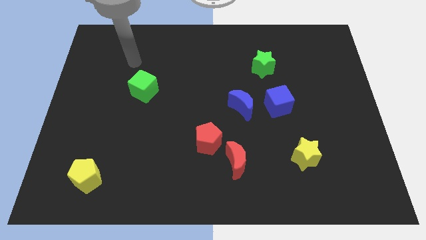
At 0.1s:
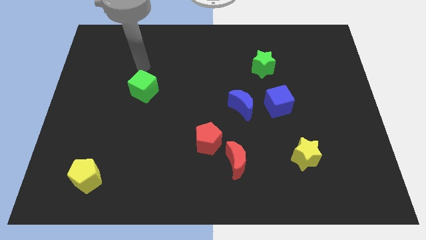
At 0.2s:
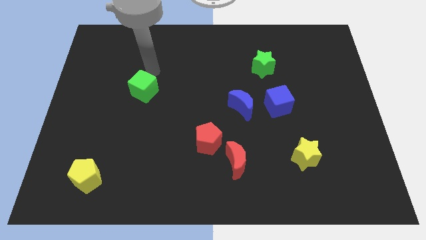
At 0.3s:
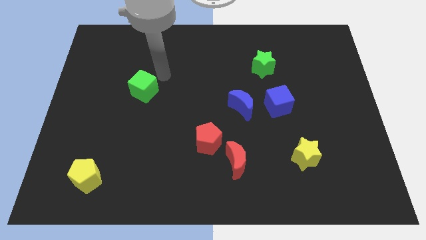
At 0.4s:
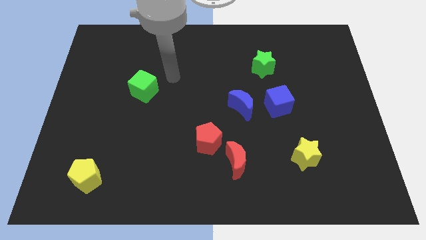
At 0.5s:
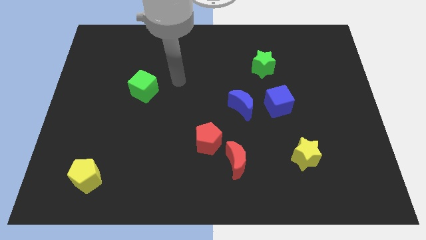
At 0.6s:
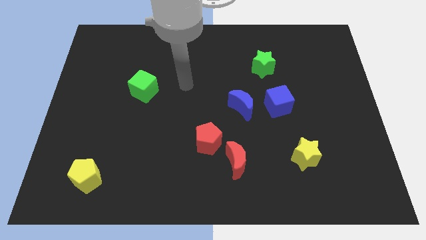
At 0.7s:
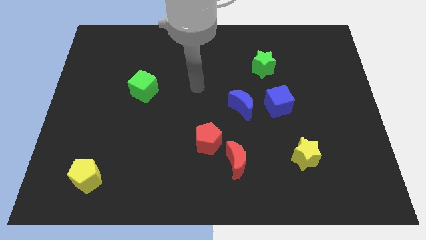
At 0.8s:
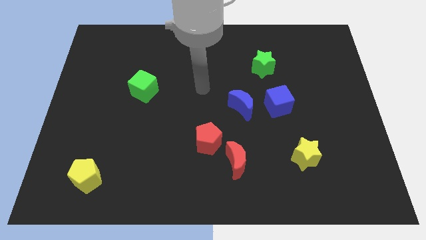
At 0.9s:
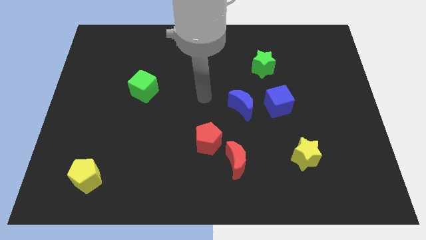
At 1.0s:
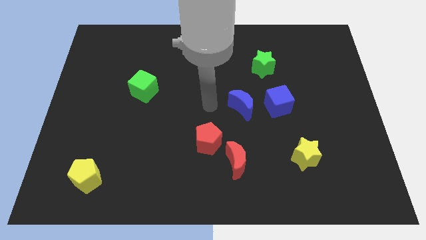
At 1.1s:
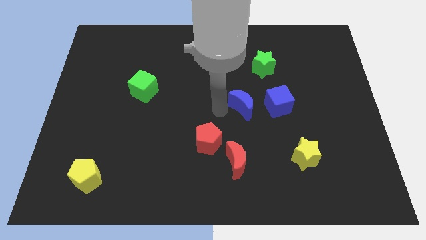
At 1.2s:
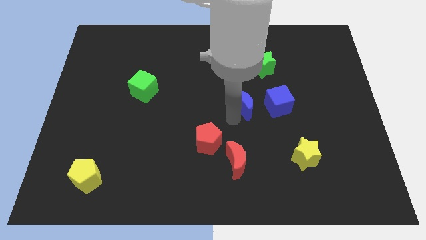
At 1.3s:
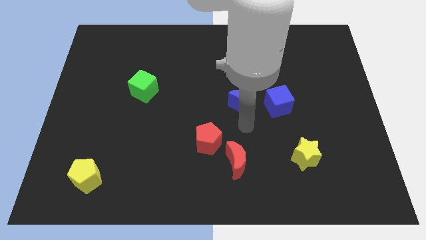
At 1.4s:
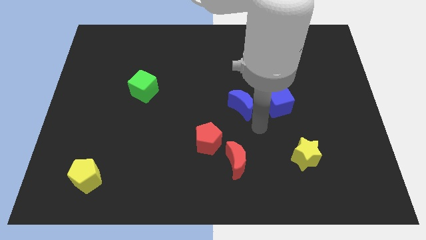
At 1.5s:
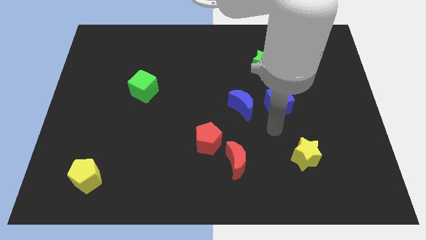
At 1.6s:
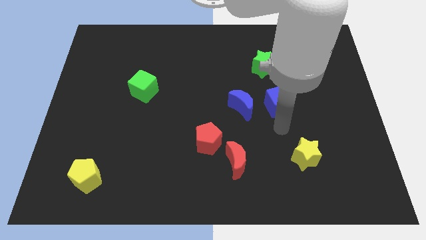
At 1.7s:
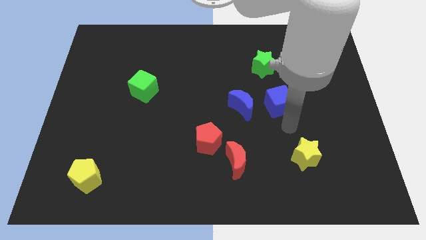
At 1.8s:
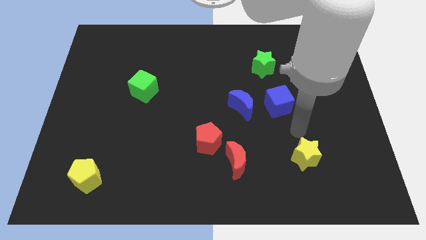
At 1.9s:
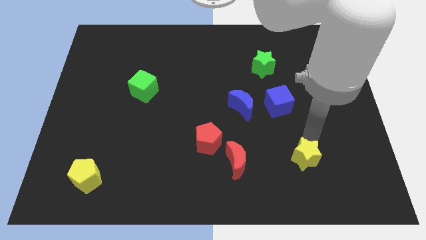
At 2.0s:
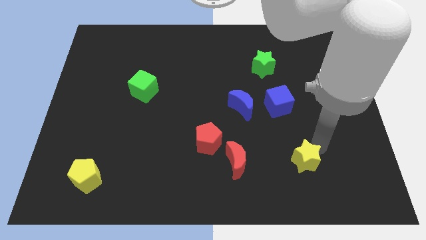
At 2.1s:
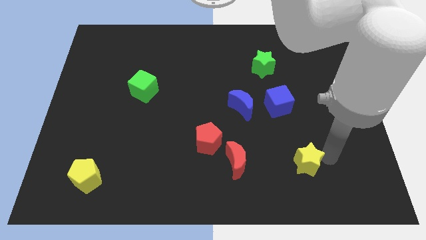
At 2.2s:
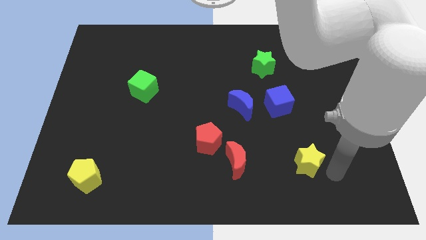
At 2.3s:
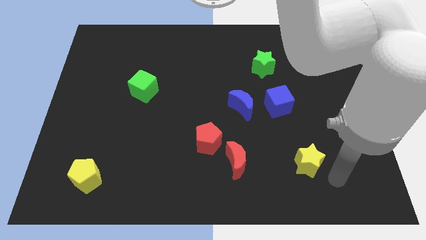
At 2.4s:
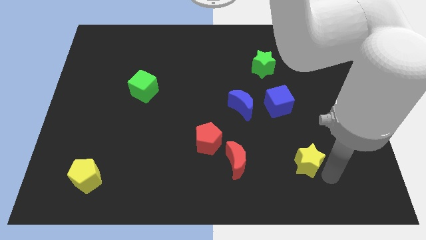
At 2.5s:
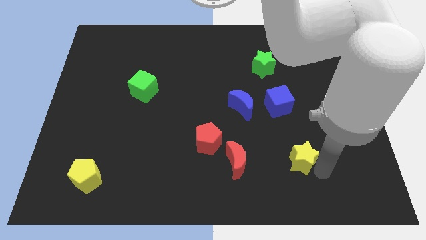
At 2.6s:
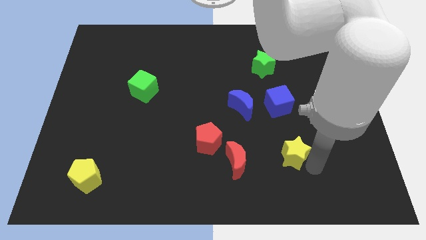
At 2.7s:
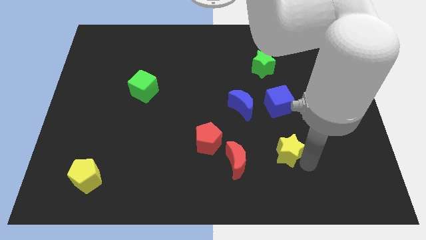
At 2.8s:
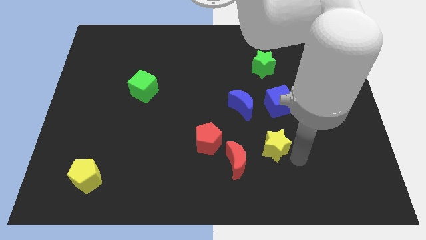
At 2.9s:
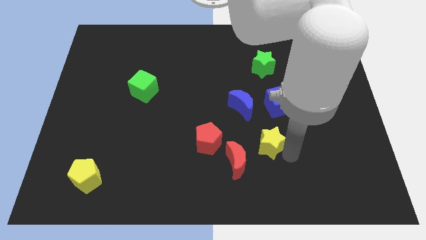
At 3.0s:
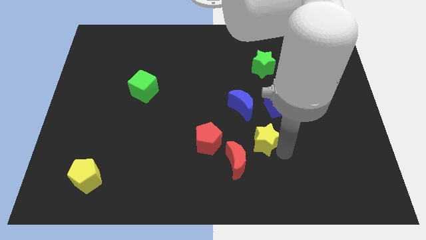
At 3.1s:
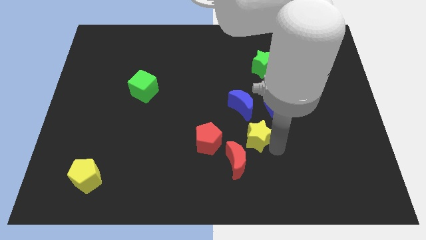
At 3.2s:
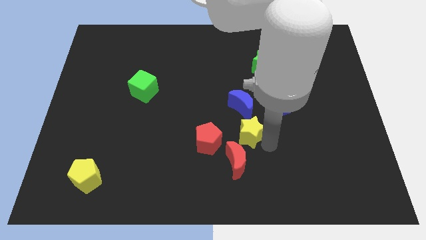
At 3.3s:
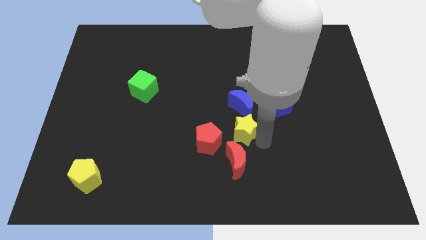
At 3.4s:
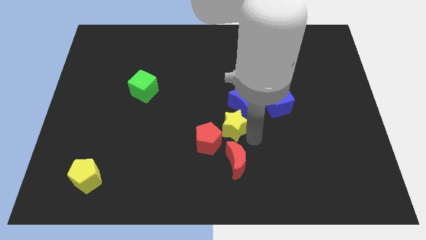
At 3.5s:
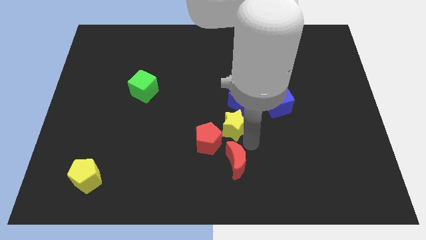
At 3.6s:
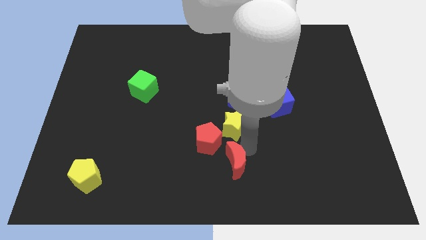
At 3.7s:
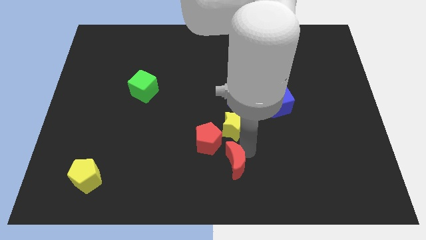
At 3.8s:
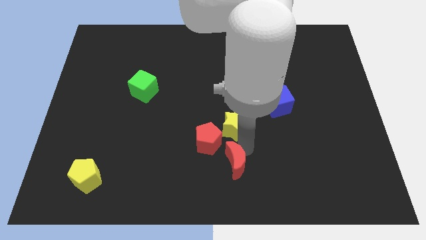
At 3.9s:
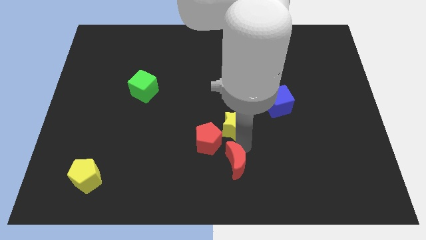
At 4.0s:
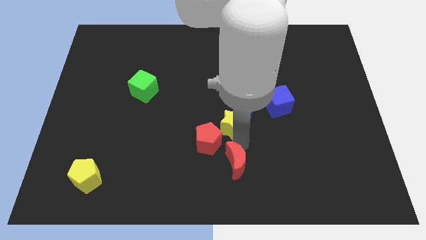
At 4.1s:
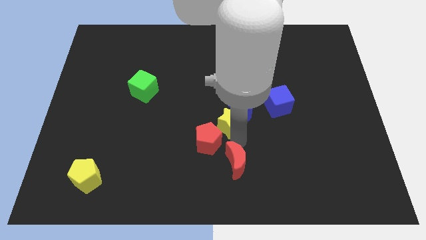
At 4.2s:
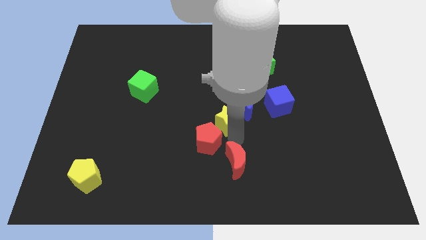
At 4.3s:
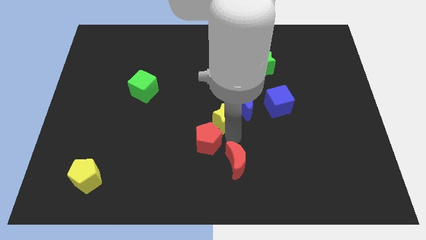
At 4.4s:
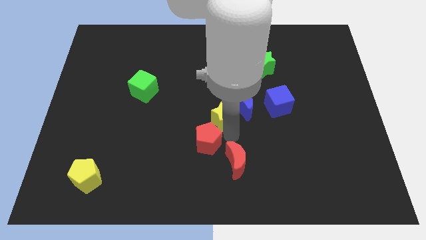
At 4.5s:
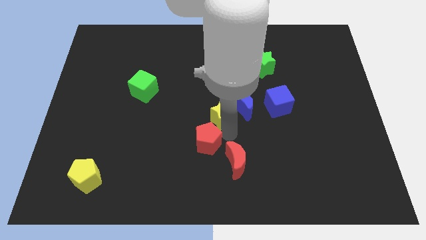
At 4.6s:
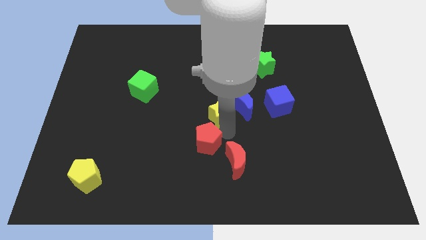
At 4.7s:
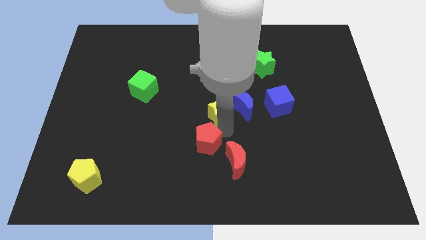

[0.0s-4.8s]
slide the yellow star upwards and then to the left

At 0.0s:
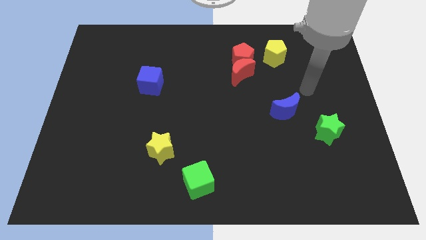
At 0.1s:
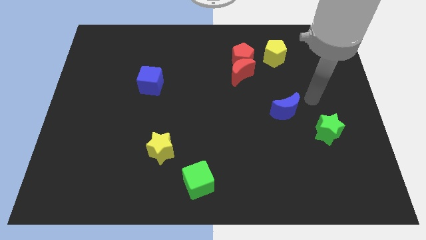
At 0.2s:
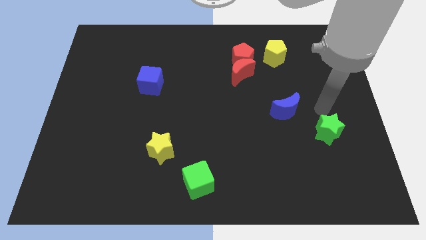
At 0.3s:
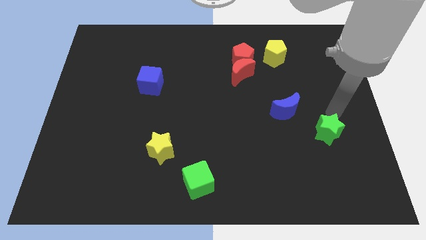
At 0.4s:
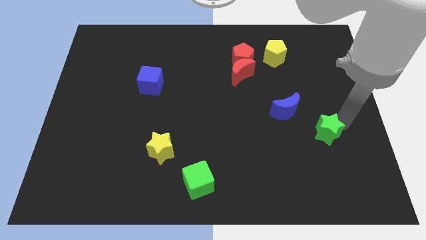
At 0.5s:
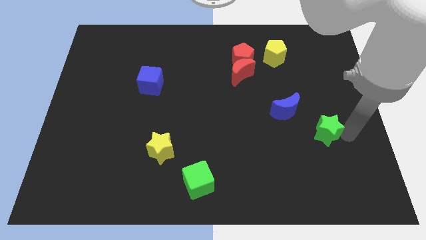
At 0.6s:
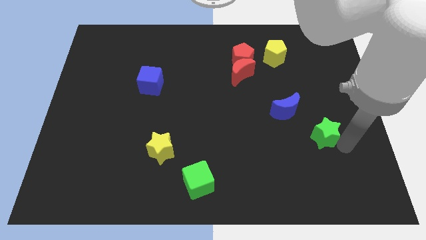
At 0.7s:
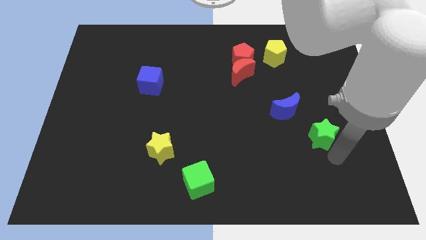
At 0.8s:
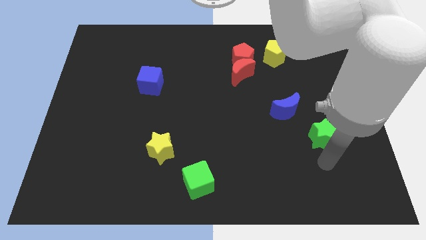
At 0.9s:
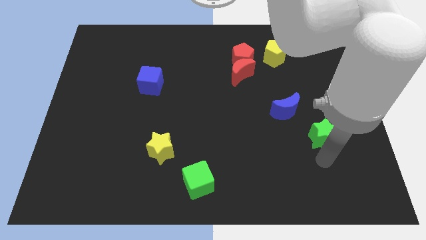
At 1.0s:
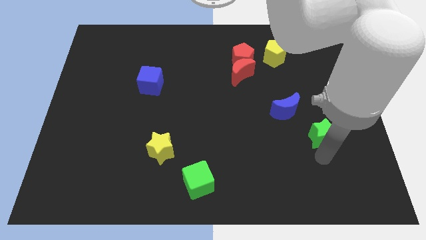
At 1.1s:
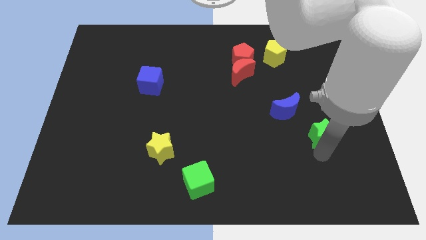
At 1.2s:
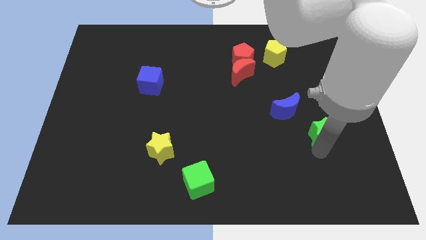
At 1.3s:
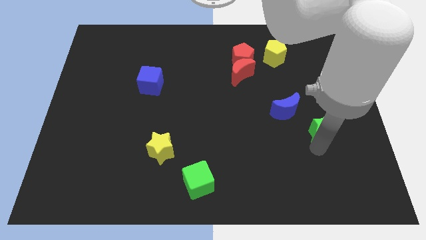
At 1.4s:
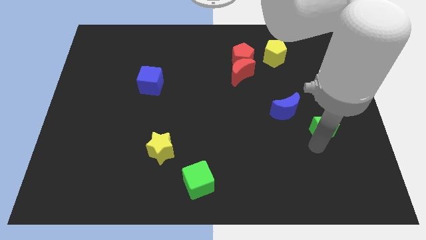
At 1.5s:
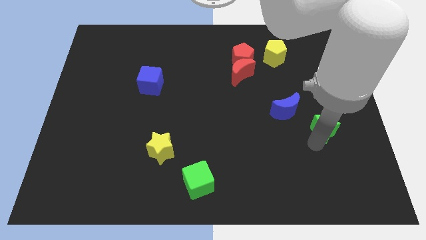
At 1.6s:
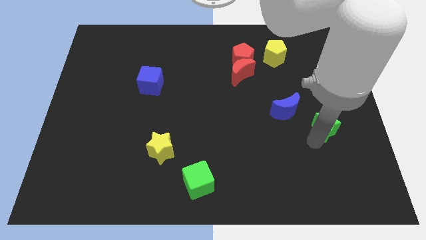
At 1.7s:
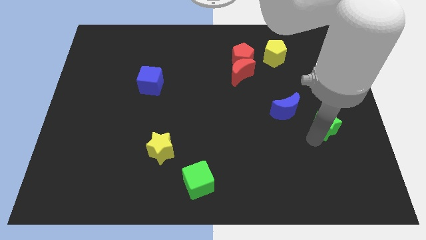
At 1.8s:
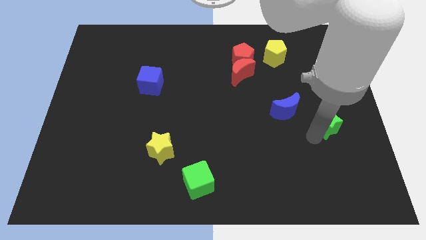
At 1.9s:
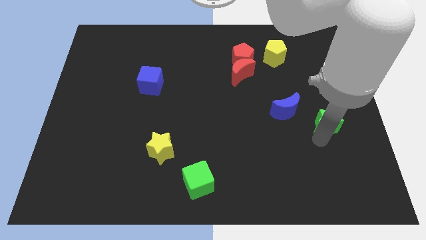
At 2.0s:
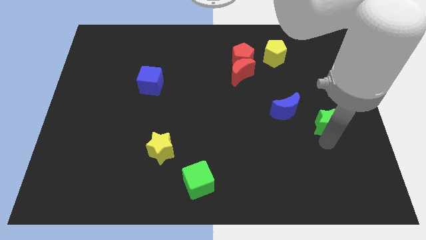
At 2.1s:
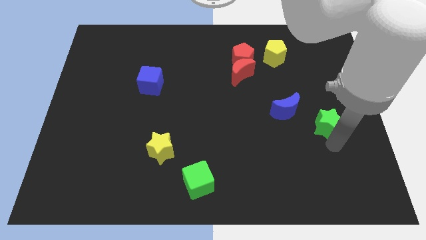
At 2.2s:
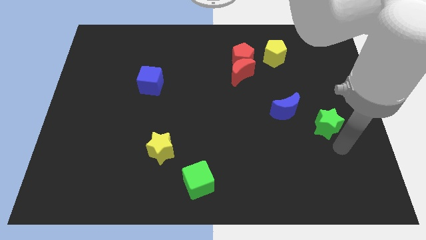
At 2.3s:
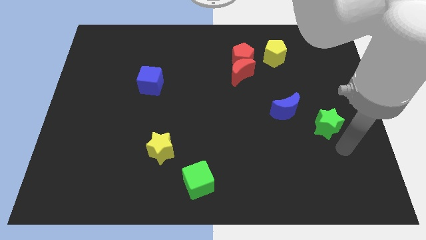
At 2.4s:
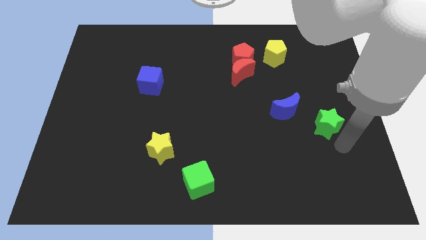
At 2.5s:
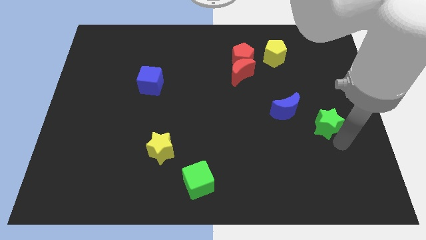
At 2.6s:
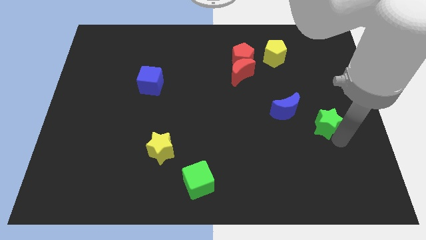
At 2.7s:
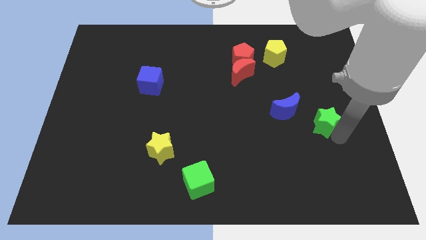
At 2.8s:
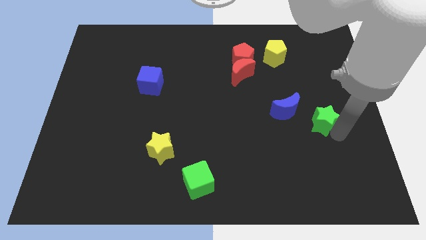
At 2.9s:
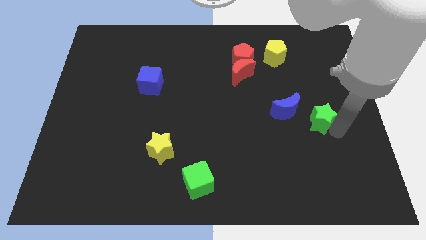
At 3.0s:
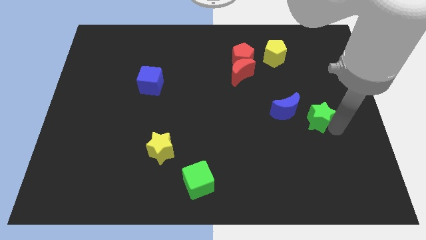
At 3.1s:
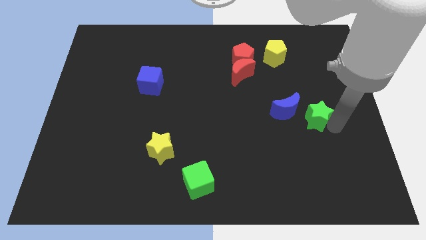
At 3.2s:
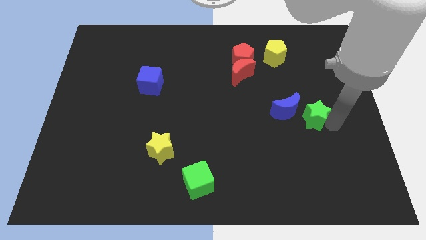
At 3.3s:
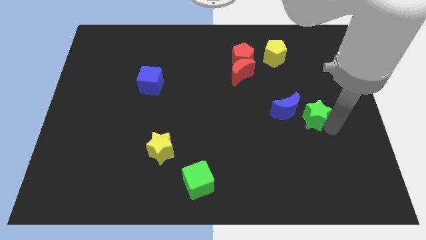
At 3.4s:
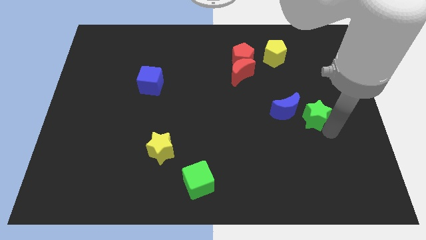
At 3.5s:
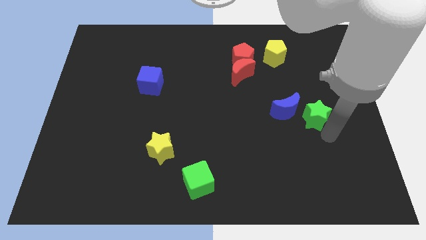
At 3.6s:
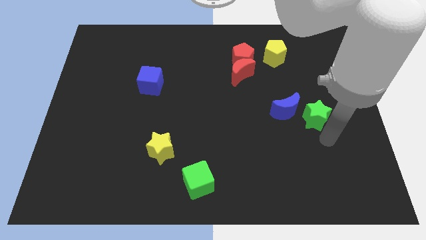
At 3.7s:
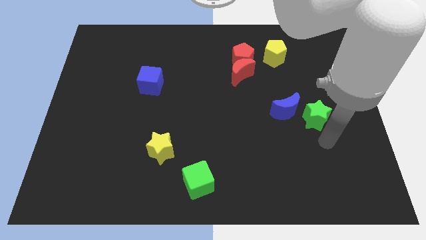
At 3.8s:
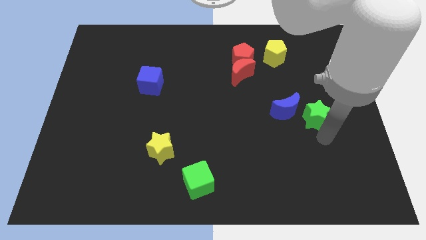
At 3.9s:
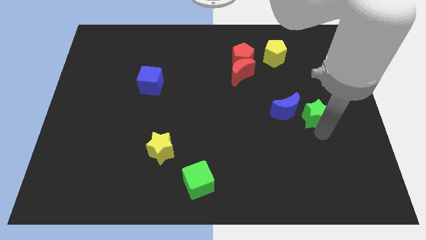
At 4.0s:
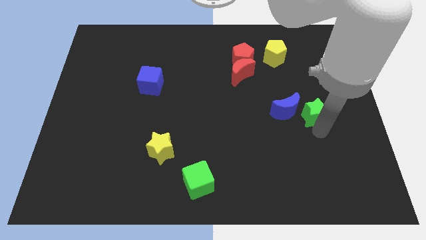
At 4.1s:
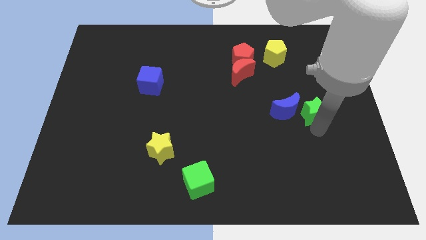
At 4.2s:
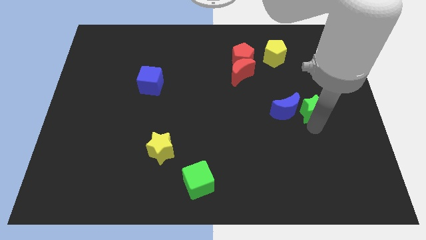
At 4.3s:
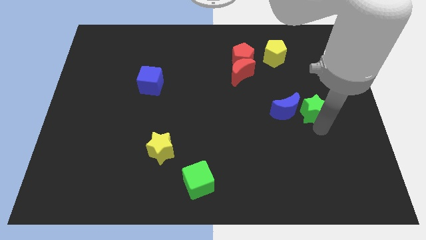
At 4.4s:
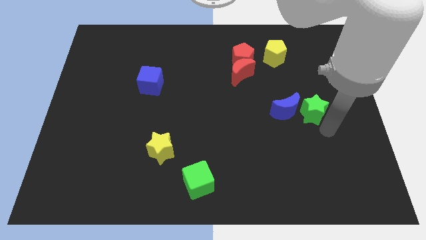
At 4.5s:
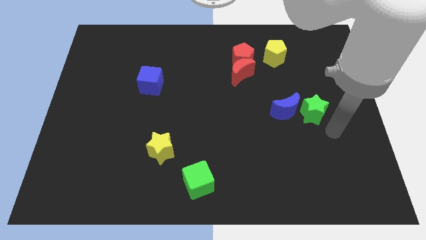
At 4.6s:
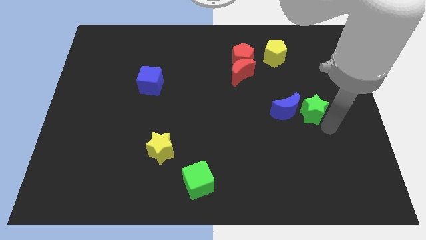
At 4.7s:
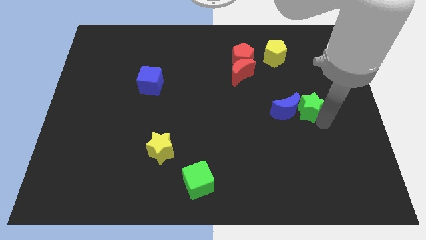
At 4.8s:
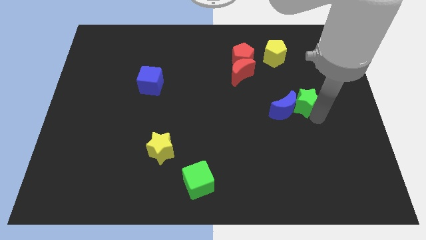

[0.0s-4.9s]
slightly move the green star diagonally upwards and left
